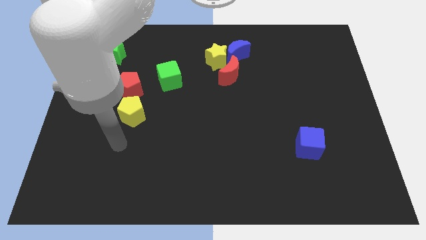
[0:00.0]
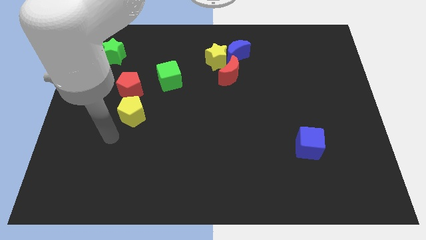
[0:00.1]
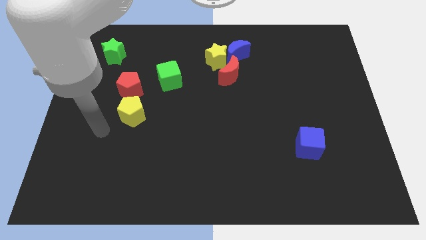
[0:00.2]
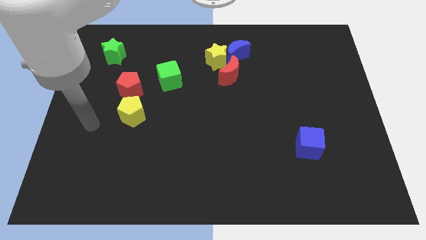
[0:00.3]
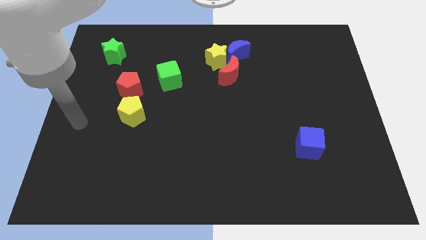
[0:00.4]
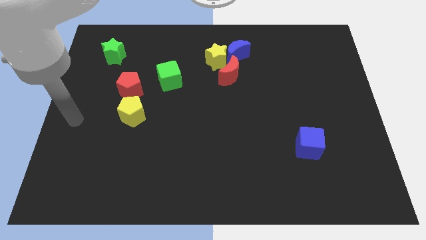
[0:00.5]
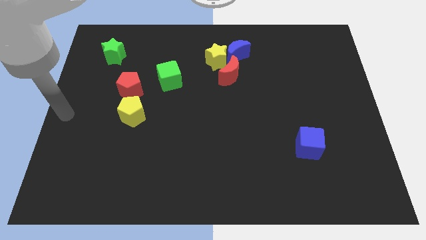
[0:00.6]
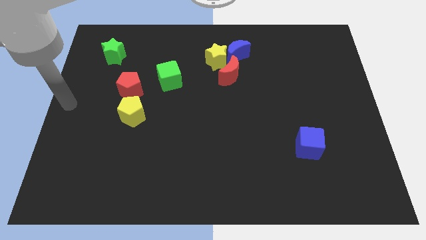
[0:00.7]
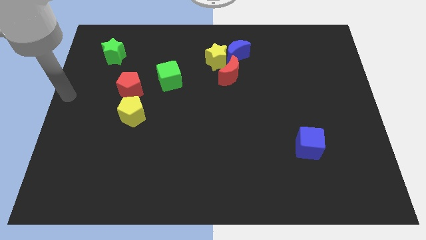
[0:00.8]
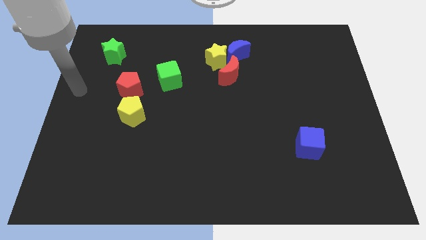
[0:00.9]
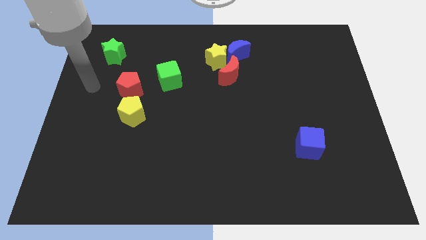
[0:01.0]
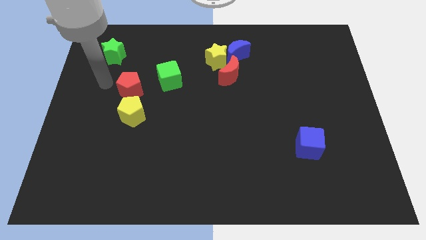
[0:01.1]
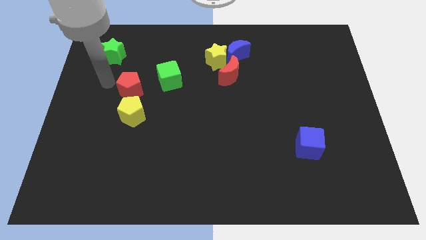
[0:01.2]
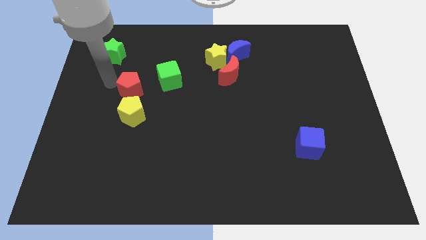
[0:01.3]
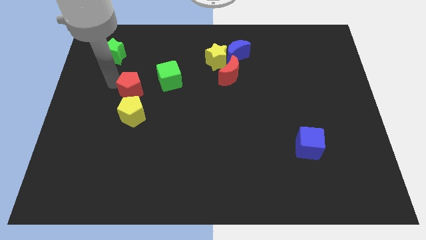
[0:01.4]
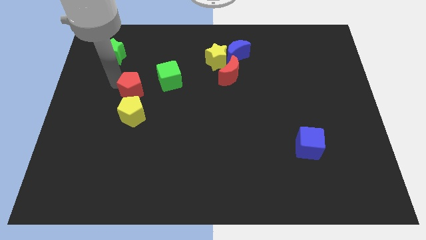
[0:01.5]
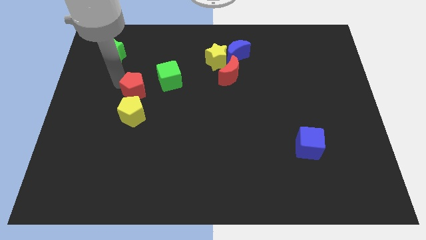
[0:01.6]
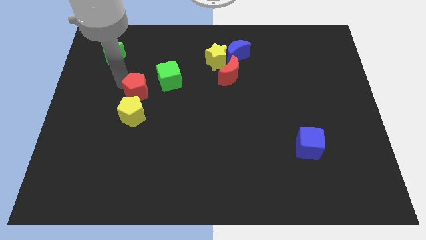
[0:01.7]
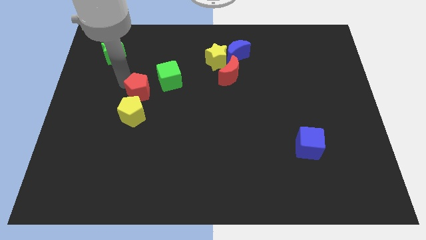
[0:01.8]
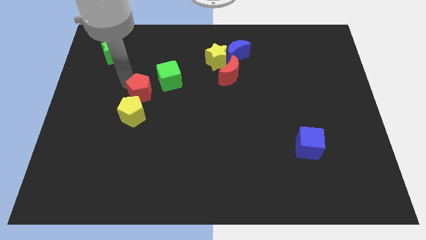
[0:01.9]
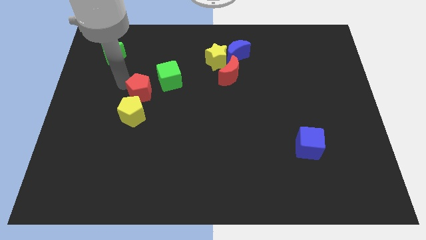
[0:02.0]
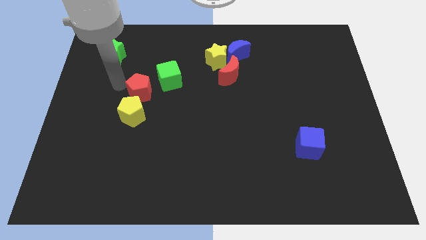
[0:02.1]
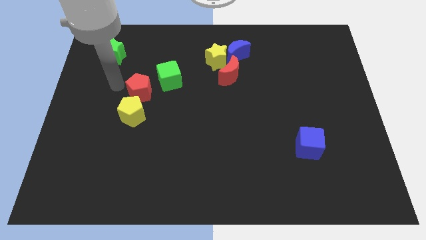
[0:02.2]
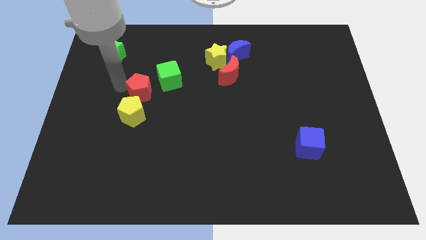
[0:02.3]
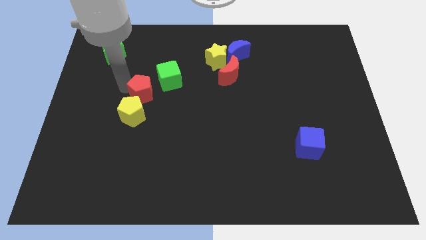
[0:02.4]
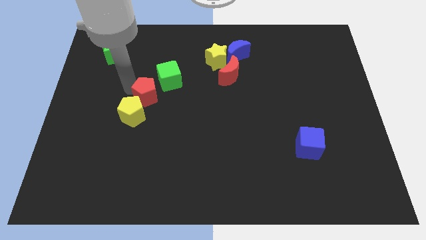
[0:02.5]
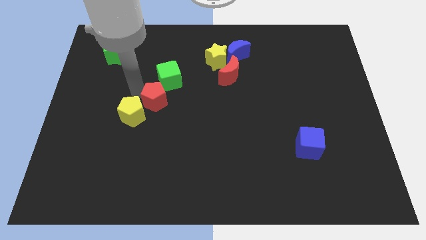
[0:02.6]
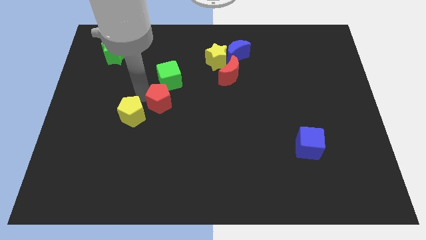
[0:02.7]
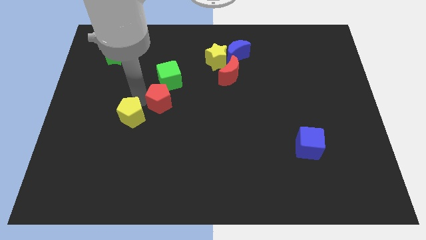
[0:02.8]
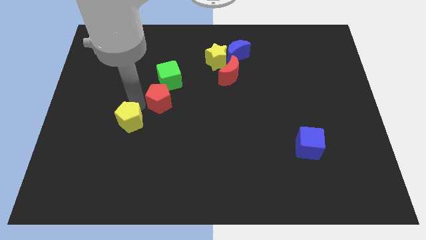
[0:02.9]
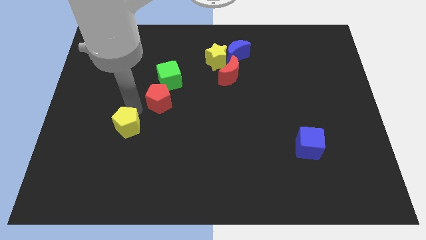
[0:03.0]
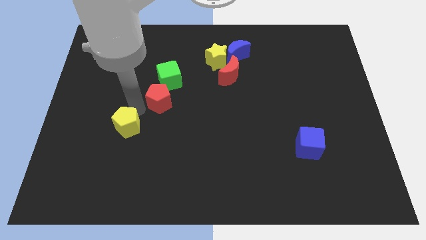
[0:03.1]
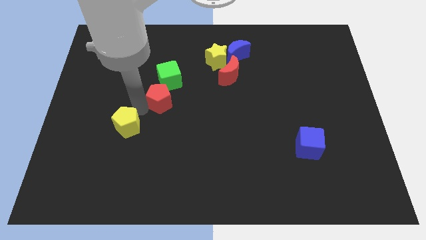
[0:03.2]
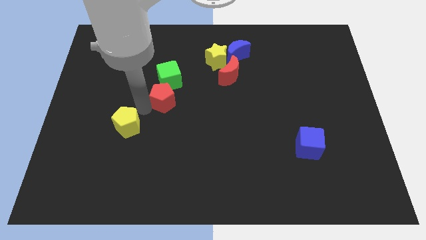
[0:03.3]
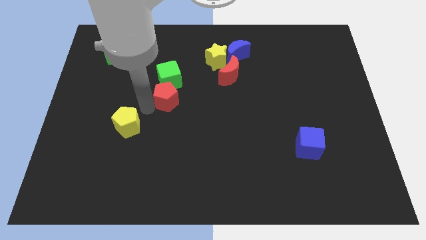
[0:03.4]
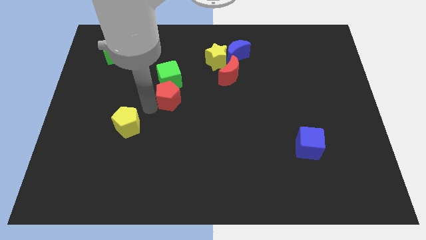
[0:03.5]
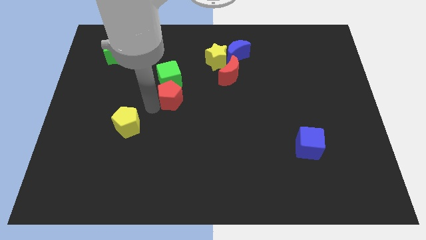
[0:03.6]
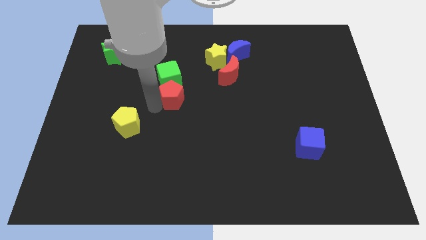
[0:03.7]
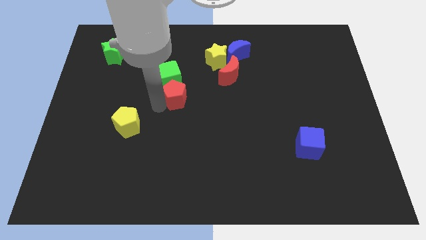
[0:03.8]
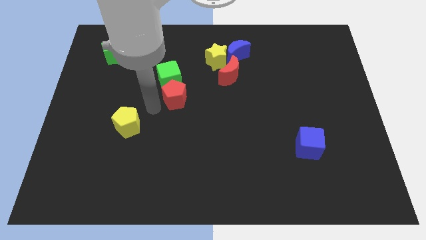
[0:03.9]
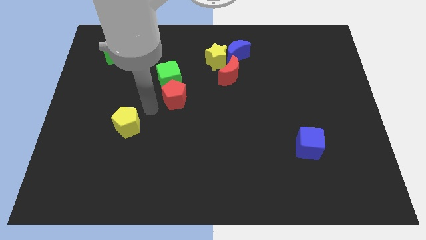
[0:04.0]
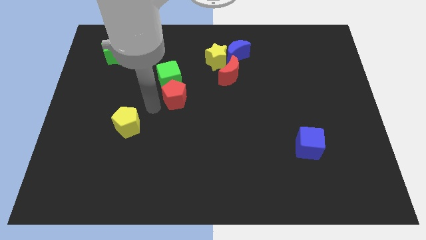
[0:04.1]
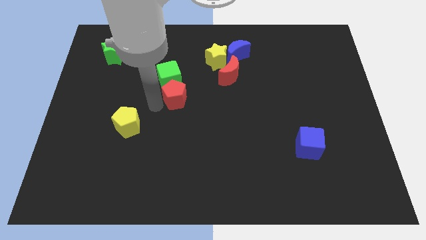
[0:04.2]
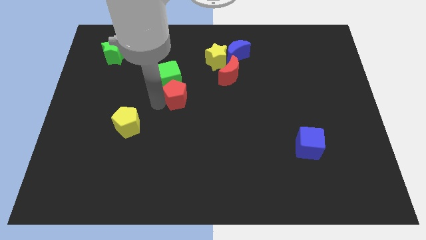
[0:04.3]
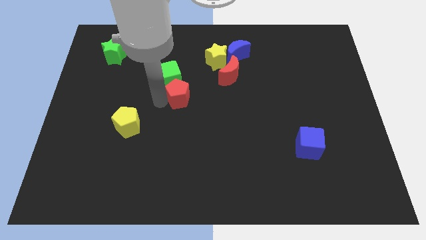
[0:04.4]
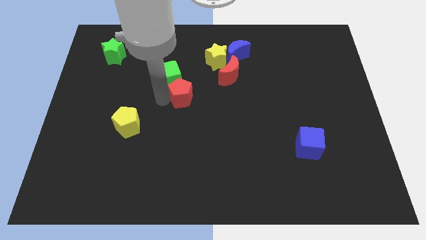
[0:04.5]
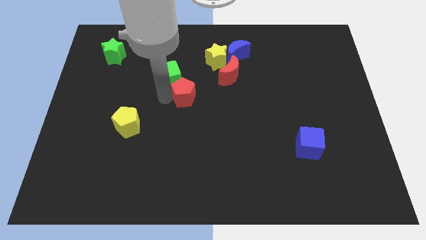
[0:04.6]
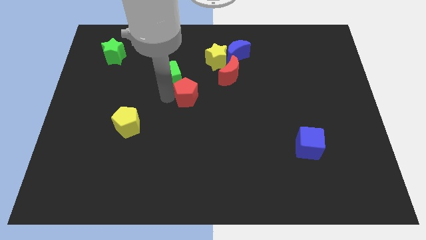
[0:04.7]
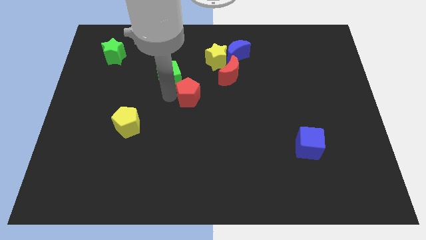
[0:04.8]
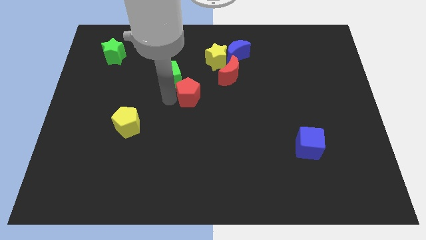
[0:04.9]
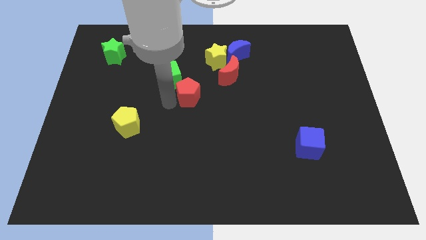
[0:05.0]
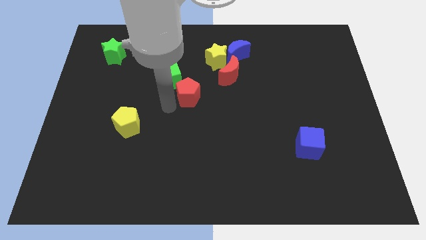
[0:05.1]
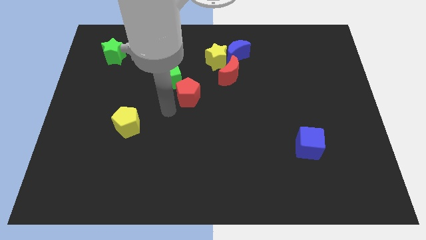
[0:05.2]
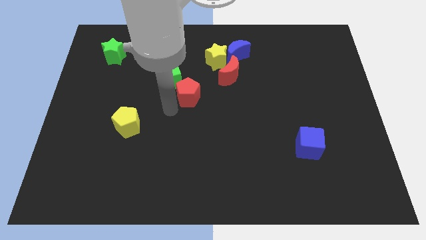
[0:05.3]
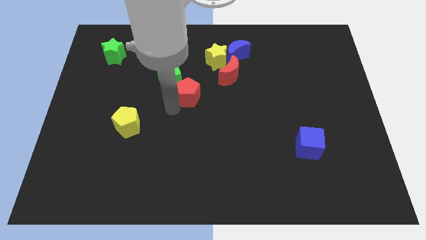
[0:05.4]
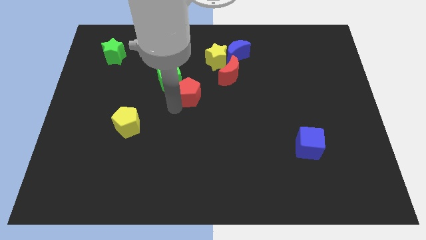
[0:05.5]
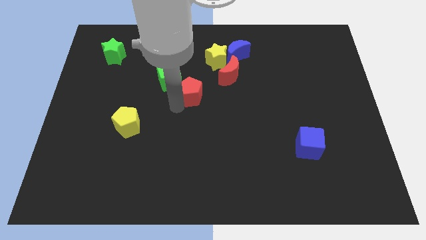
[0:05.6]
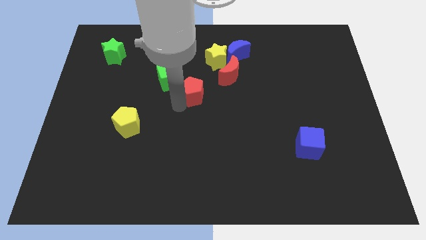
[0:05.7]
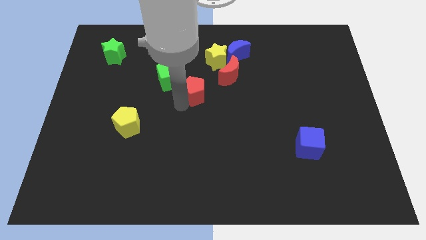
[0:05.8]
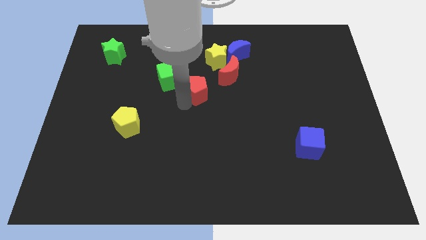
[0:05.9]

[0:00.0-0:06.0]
put the red pentagon to the bottom side of the yellow star

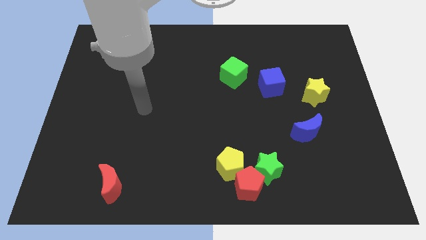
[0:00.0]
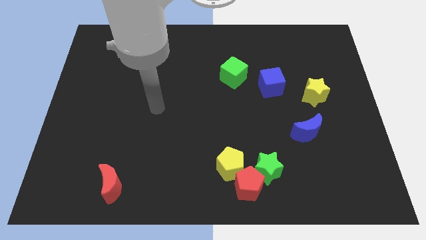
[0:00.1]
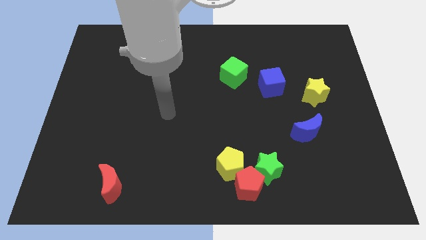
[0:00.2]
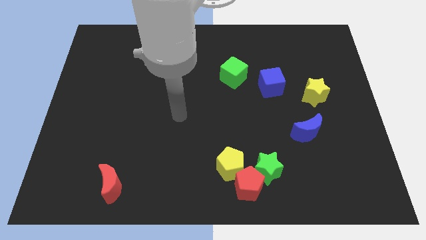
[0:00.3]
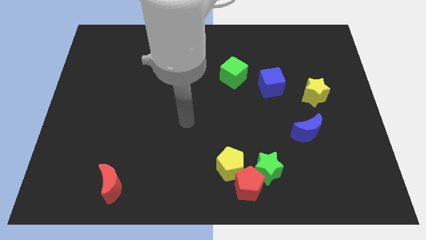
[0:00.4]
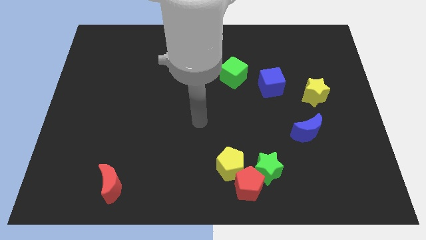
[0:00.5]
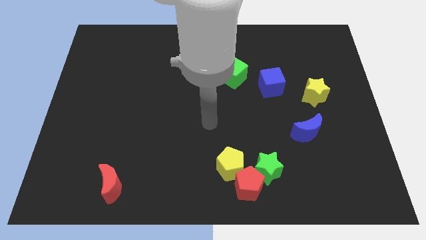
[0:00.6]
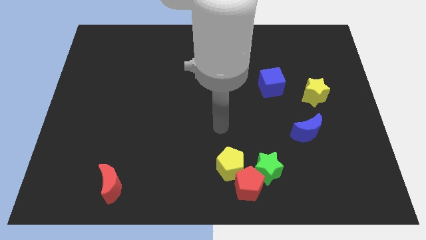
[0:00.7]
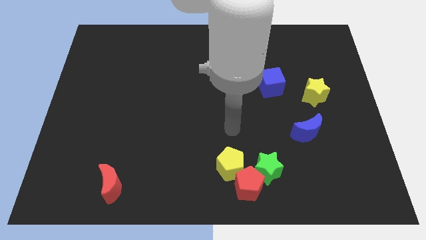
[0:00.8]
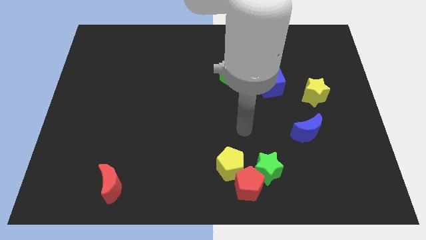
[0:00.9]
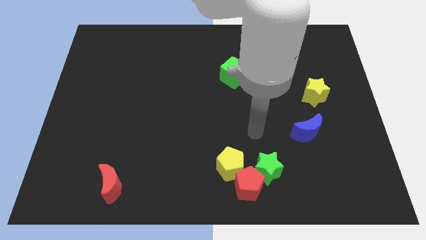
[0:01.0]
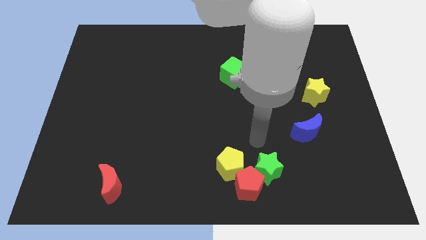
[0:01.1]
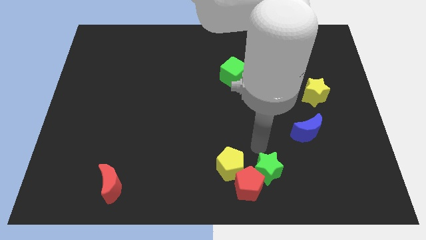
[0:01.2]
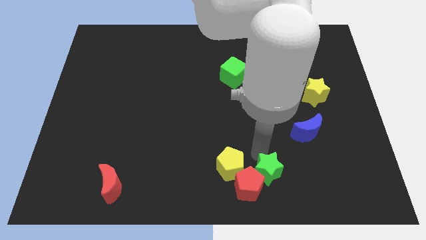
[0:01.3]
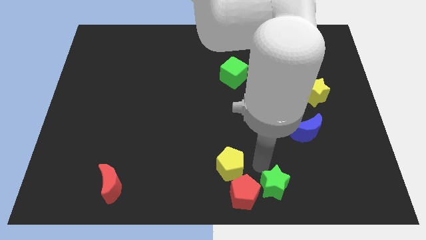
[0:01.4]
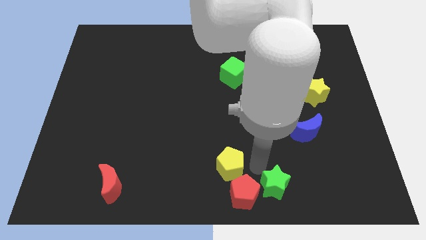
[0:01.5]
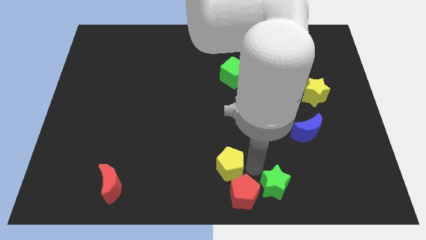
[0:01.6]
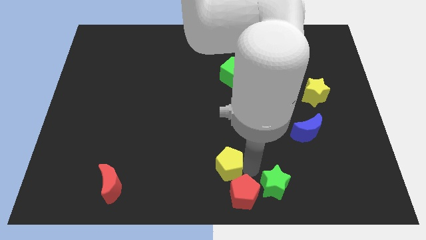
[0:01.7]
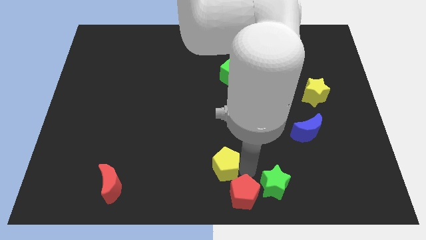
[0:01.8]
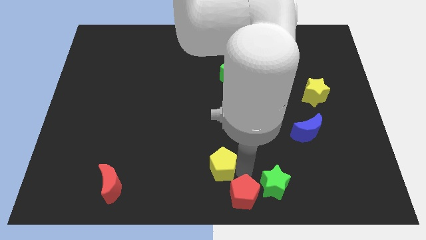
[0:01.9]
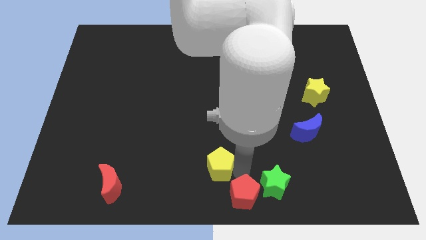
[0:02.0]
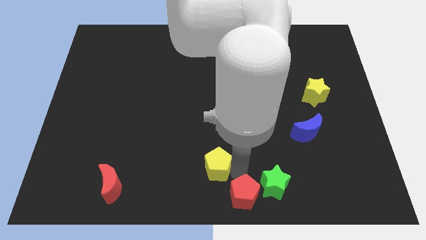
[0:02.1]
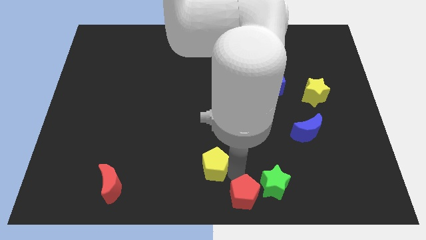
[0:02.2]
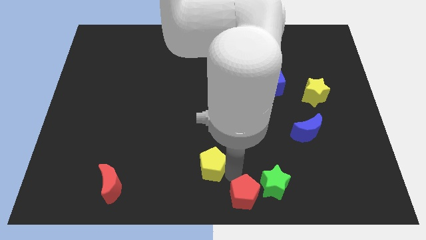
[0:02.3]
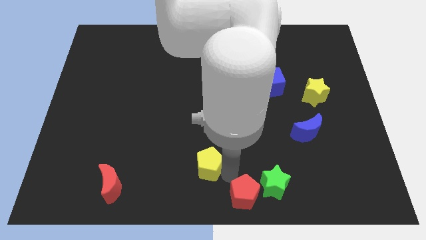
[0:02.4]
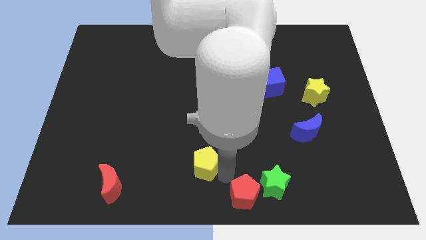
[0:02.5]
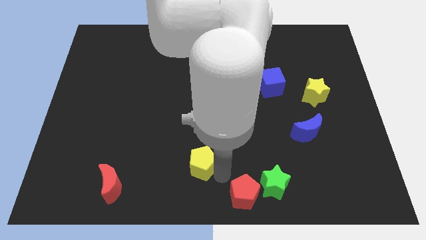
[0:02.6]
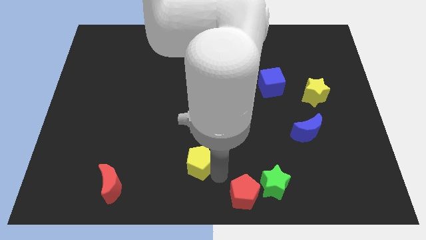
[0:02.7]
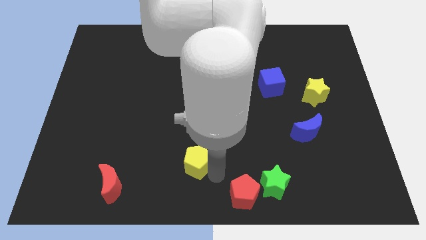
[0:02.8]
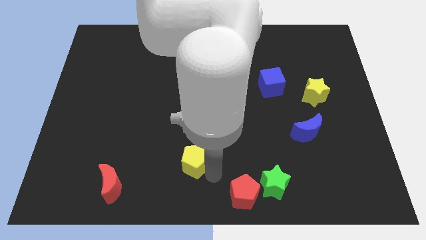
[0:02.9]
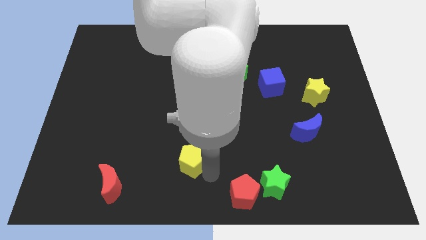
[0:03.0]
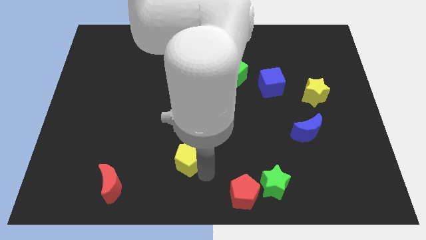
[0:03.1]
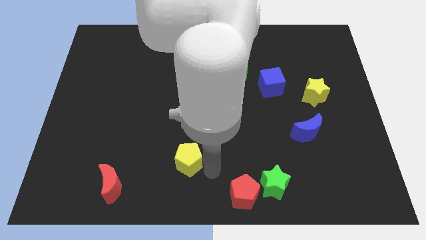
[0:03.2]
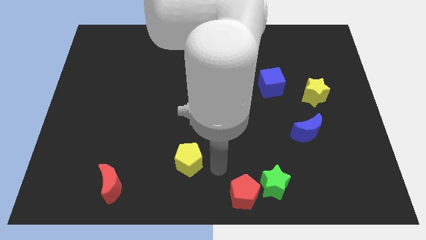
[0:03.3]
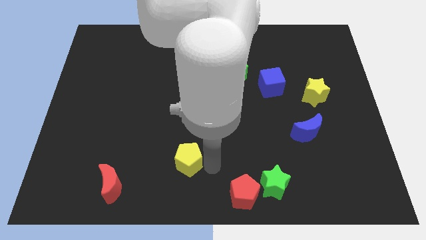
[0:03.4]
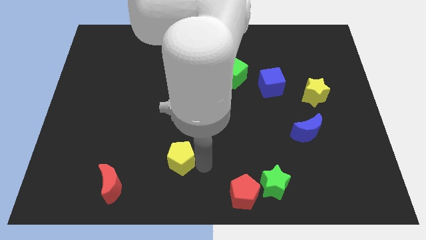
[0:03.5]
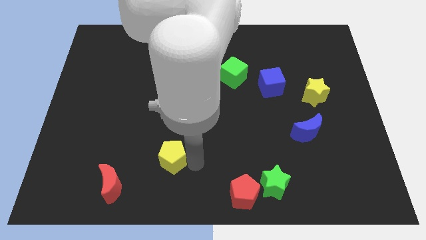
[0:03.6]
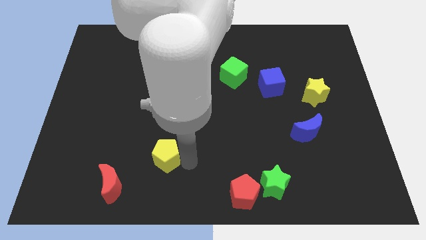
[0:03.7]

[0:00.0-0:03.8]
move the yellow pentagon diagonally up and to the right of the red moon
